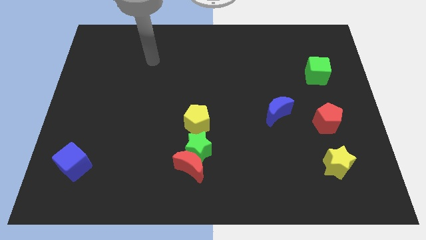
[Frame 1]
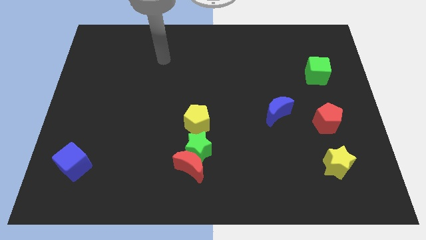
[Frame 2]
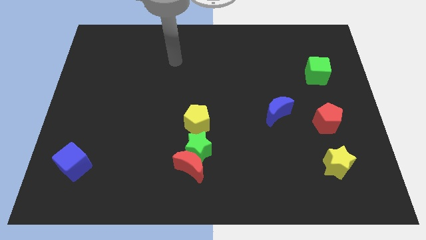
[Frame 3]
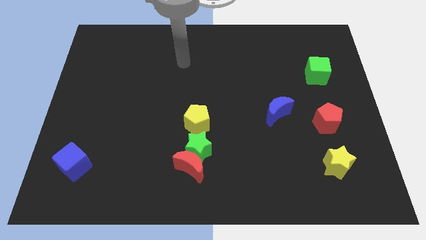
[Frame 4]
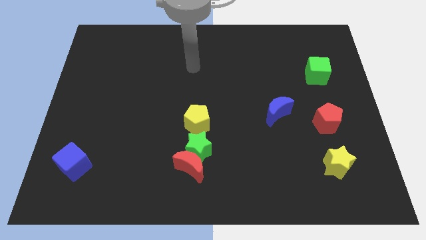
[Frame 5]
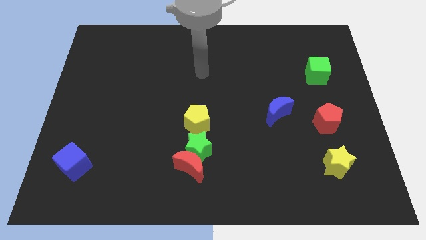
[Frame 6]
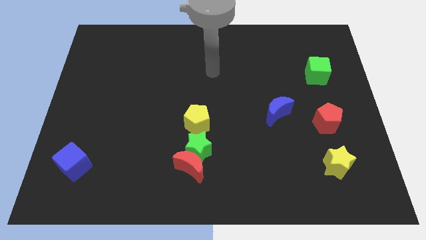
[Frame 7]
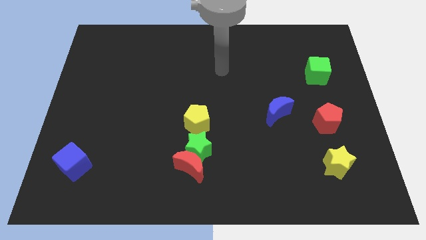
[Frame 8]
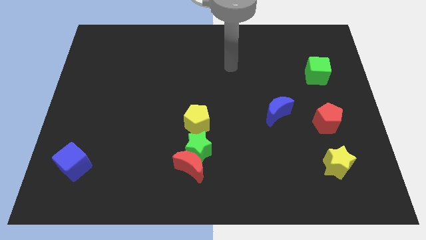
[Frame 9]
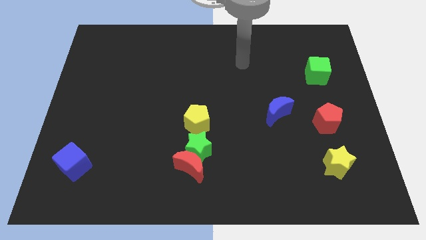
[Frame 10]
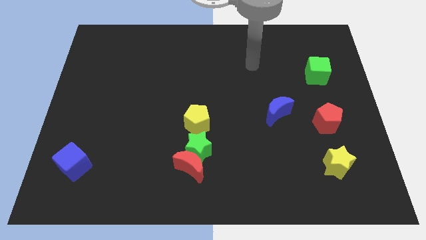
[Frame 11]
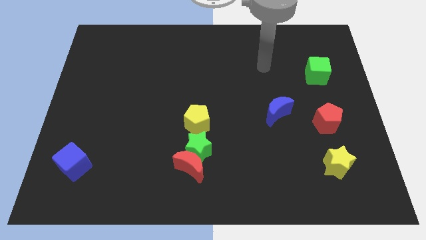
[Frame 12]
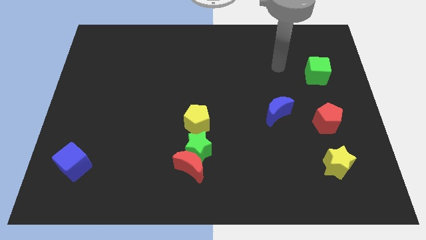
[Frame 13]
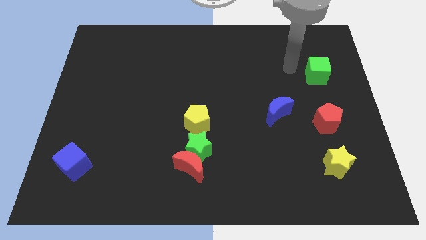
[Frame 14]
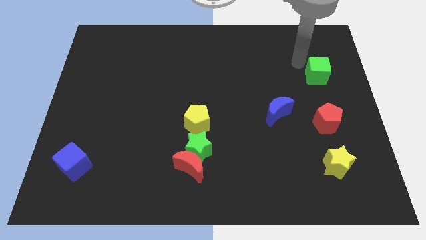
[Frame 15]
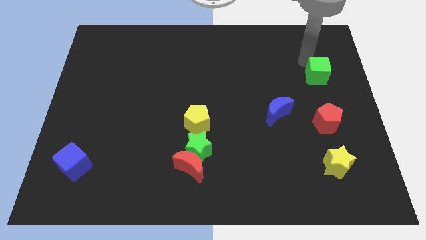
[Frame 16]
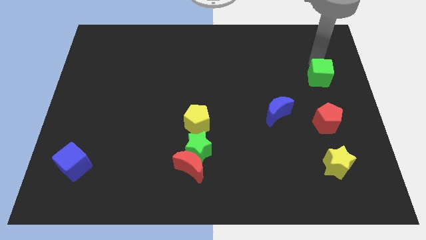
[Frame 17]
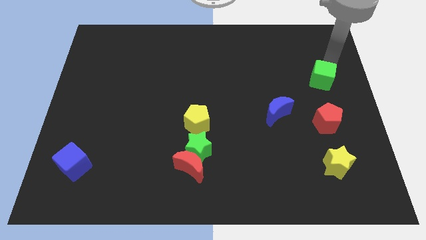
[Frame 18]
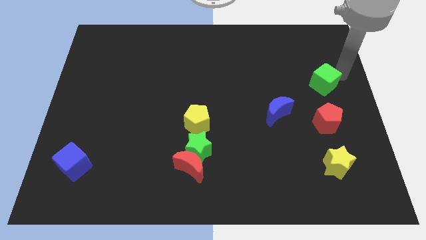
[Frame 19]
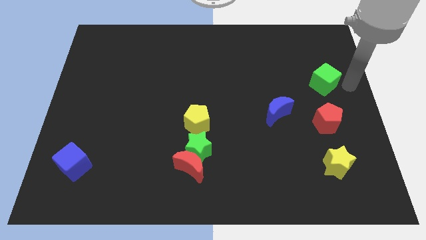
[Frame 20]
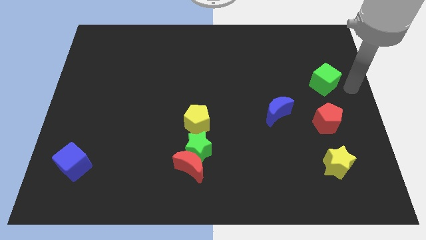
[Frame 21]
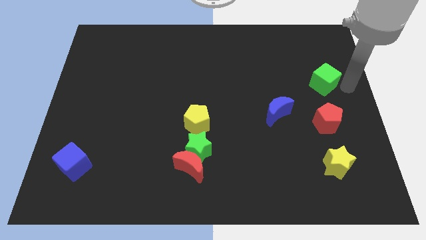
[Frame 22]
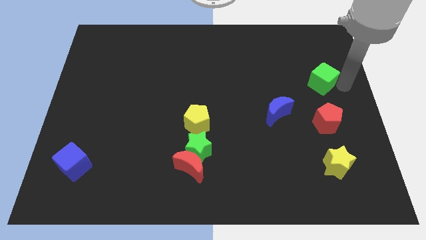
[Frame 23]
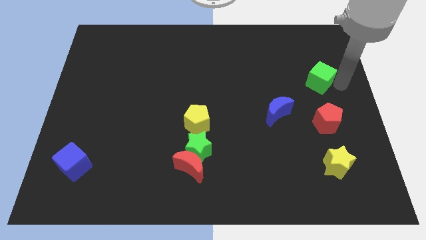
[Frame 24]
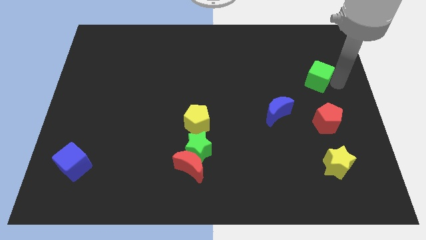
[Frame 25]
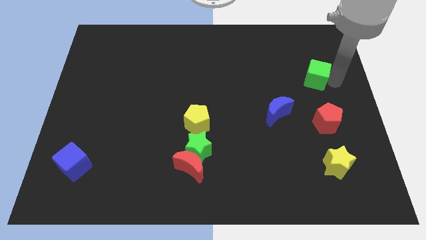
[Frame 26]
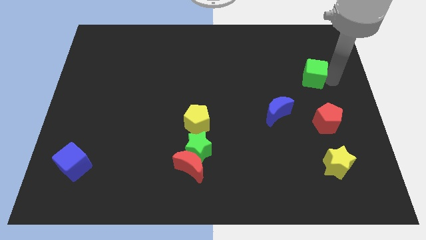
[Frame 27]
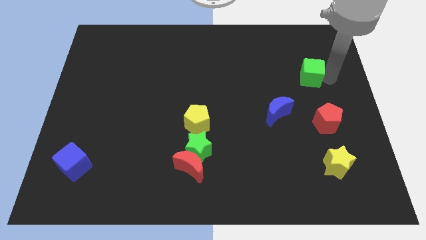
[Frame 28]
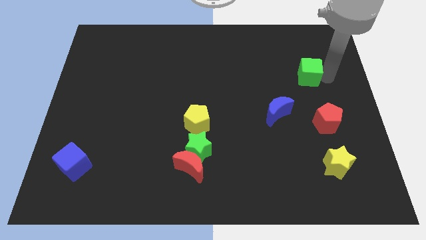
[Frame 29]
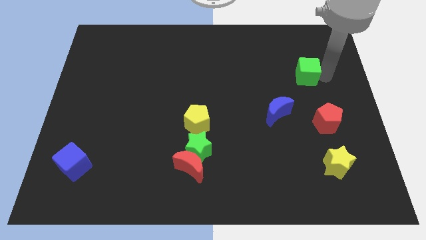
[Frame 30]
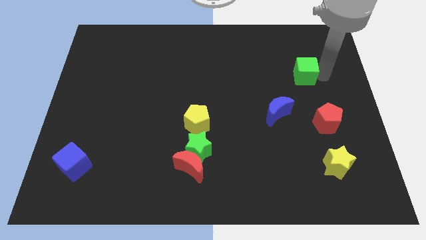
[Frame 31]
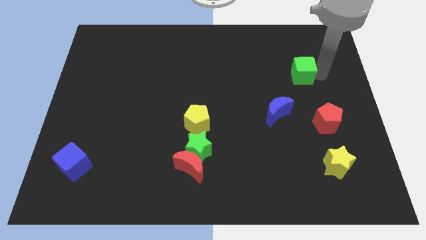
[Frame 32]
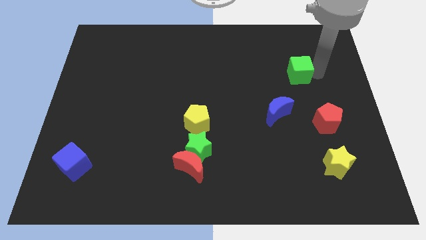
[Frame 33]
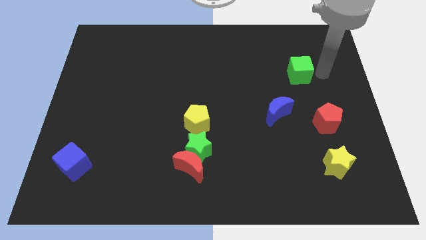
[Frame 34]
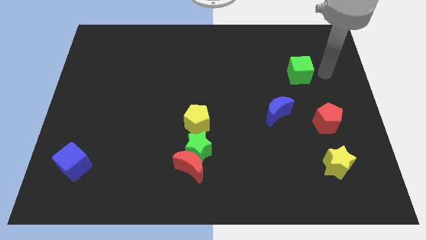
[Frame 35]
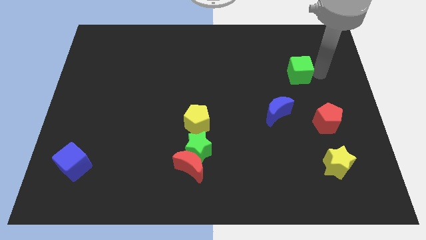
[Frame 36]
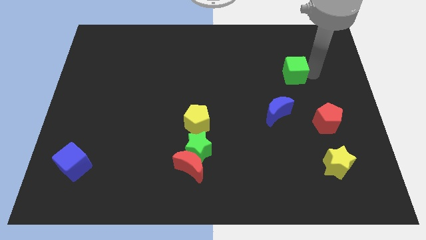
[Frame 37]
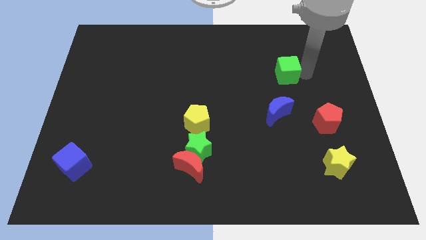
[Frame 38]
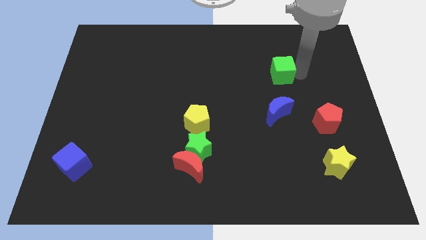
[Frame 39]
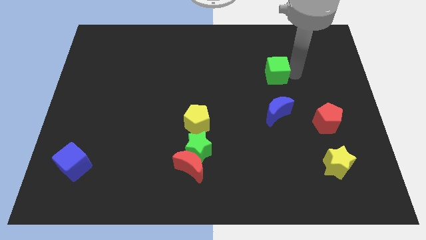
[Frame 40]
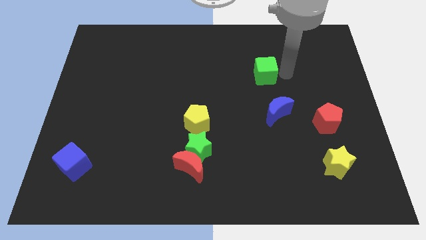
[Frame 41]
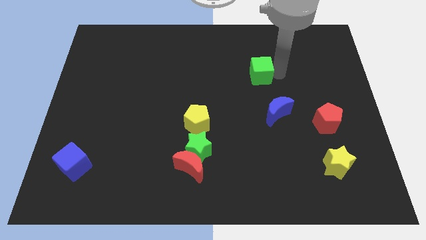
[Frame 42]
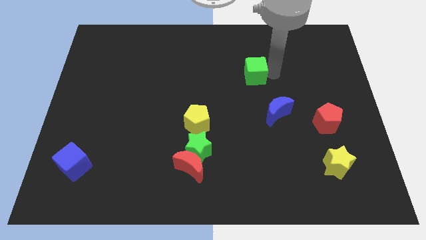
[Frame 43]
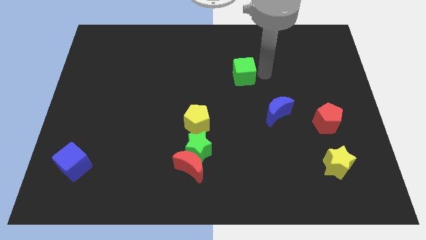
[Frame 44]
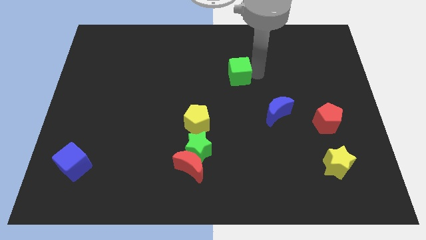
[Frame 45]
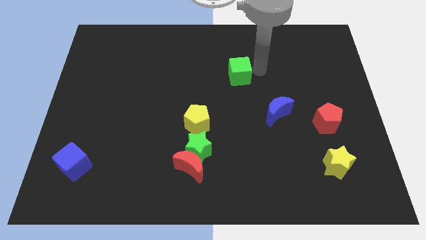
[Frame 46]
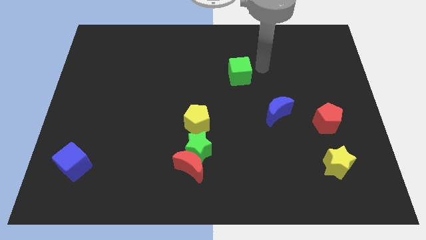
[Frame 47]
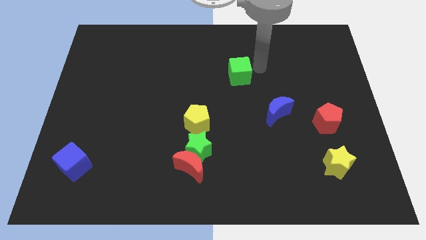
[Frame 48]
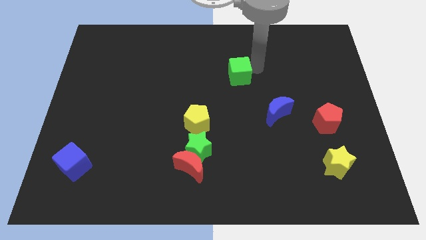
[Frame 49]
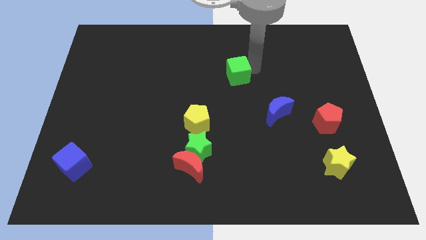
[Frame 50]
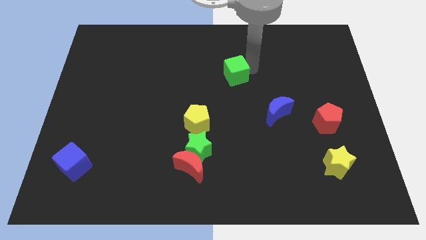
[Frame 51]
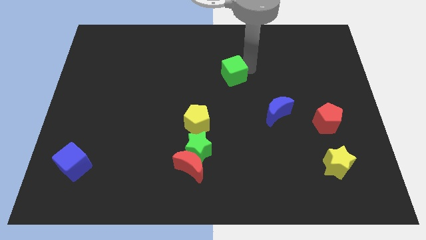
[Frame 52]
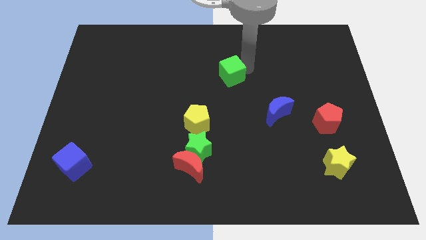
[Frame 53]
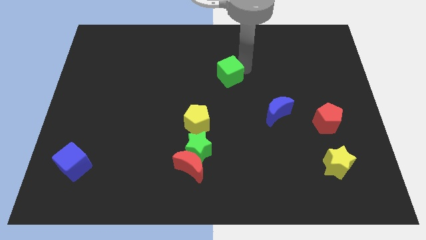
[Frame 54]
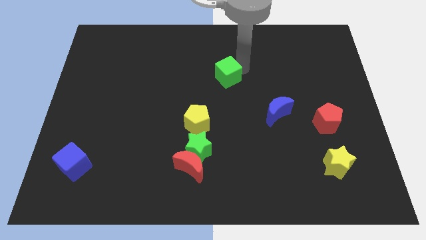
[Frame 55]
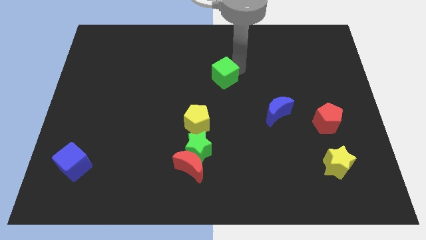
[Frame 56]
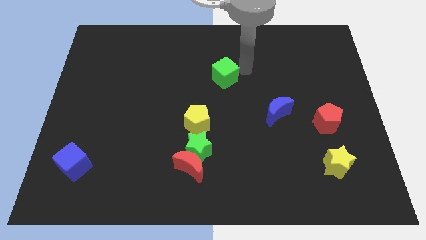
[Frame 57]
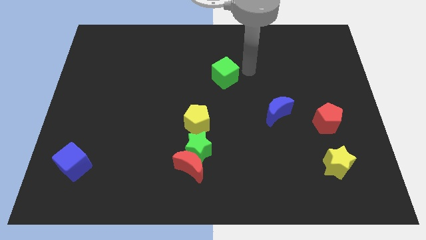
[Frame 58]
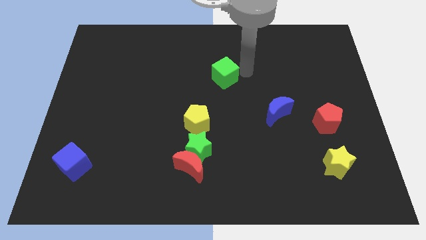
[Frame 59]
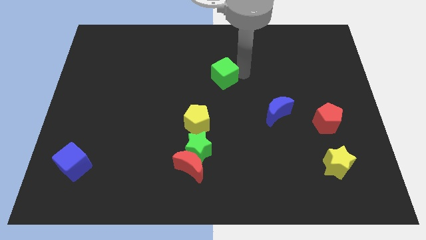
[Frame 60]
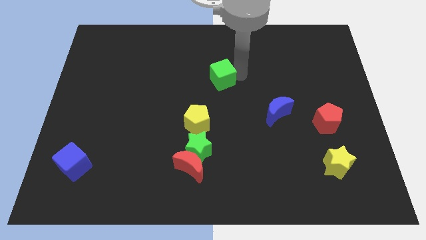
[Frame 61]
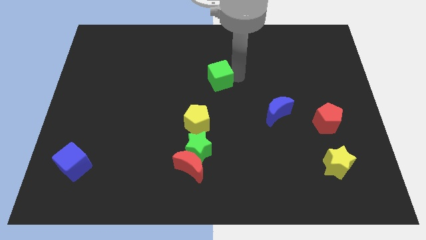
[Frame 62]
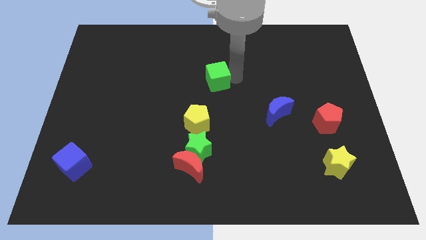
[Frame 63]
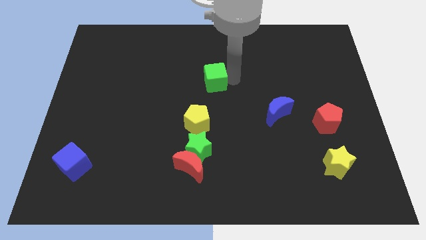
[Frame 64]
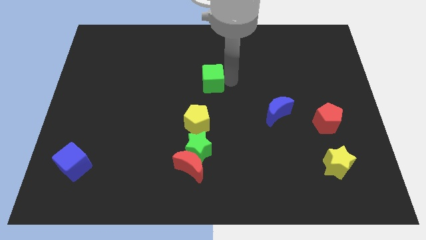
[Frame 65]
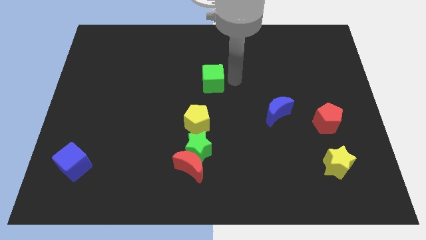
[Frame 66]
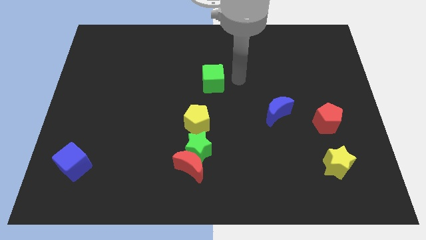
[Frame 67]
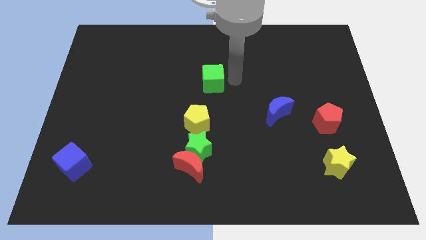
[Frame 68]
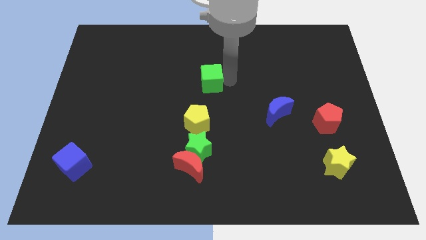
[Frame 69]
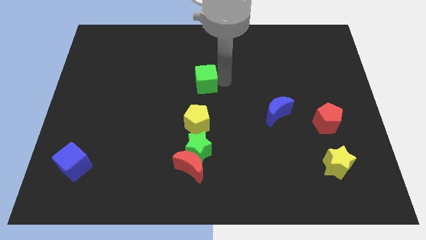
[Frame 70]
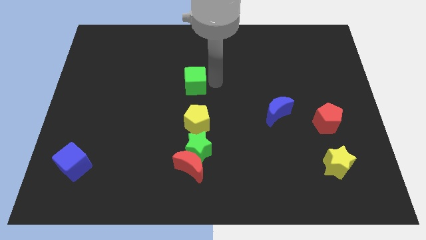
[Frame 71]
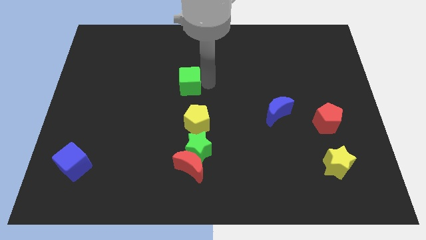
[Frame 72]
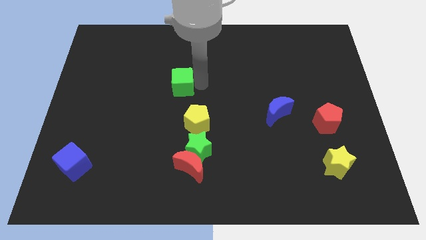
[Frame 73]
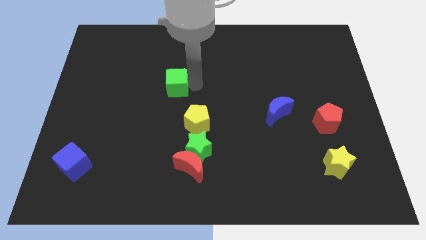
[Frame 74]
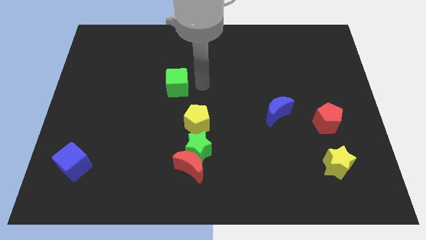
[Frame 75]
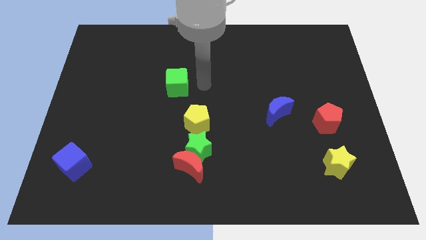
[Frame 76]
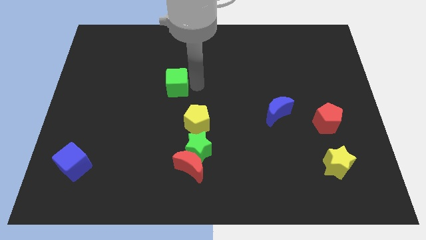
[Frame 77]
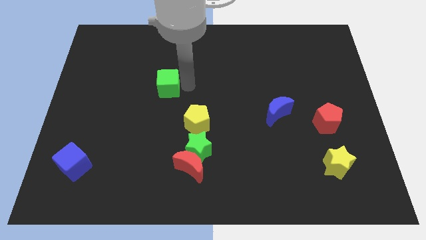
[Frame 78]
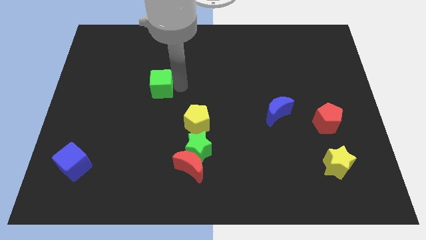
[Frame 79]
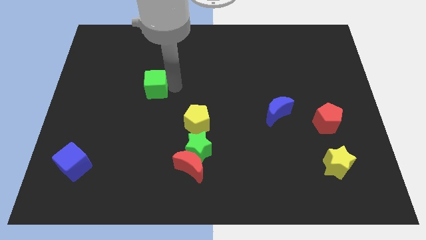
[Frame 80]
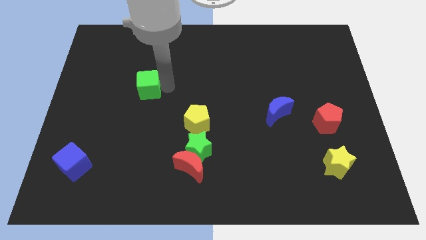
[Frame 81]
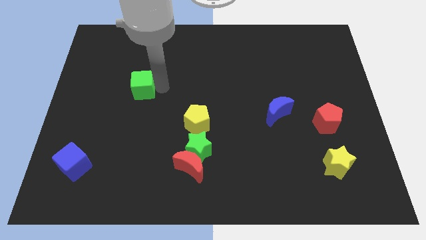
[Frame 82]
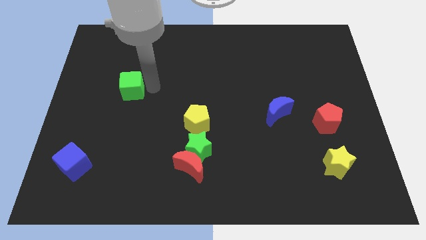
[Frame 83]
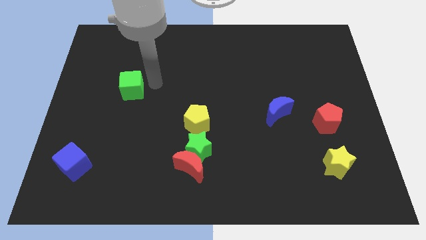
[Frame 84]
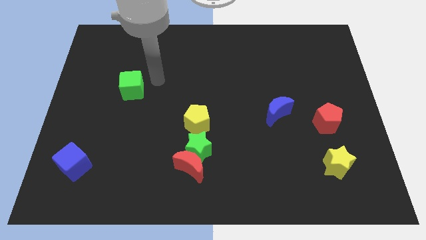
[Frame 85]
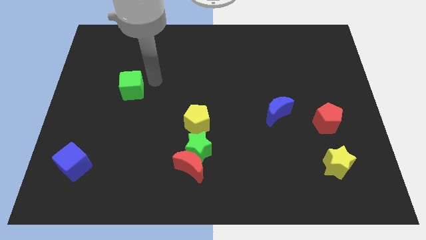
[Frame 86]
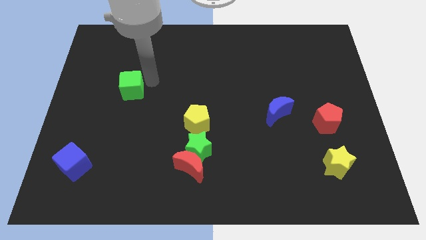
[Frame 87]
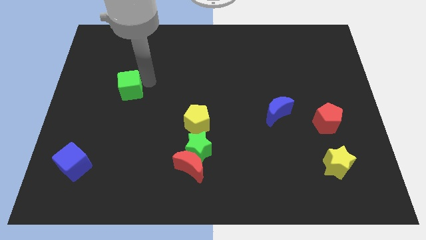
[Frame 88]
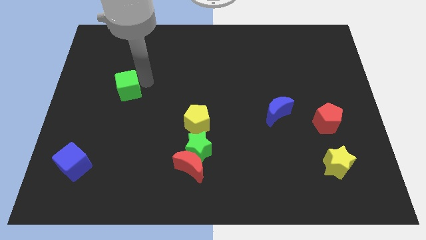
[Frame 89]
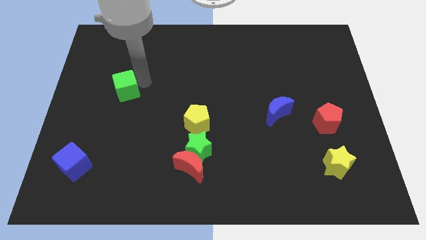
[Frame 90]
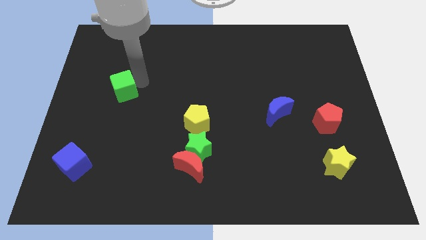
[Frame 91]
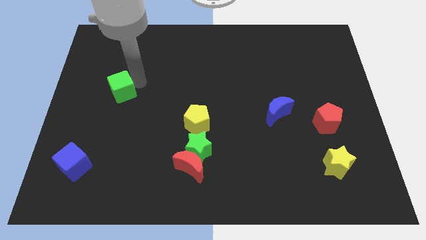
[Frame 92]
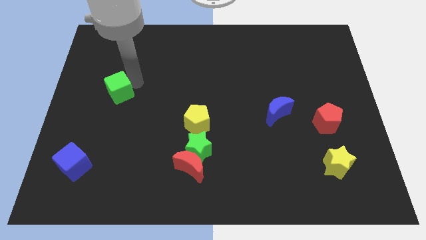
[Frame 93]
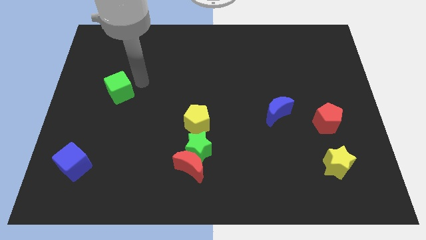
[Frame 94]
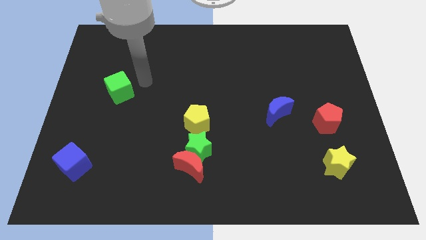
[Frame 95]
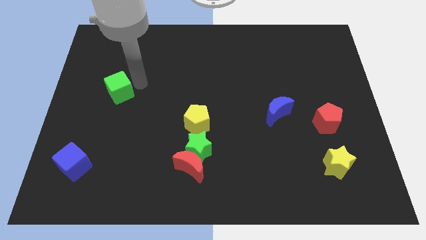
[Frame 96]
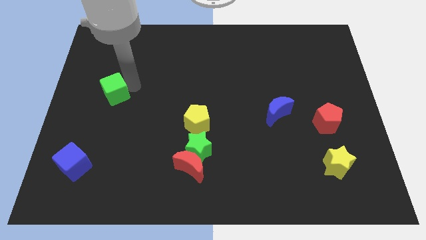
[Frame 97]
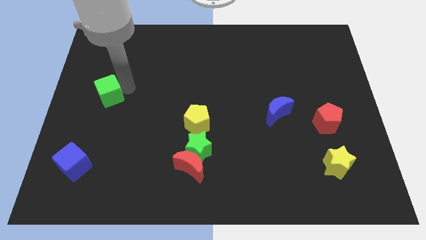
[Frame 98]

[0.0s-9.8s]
move the green cube to the center left
